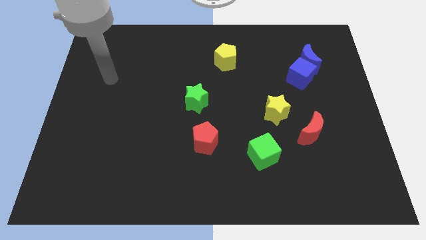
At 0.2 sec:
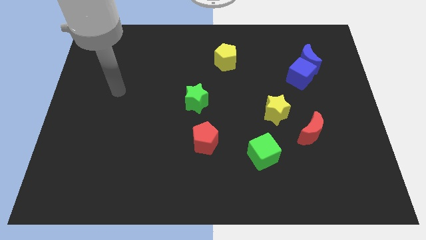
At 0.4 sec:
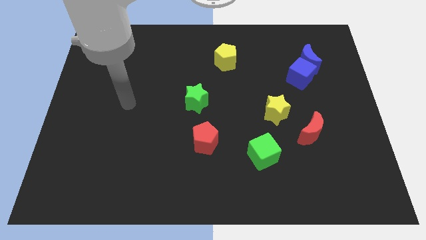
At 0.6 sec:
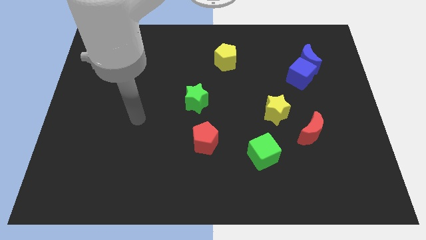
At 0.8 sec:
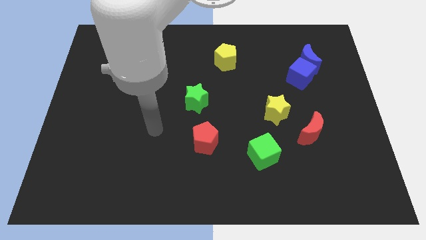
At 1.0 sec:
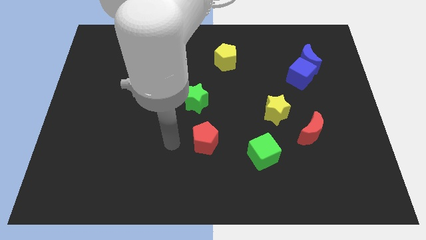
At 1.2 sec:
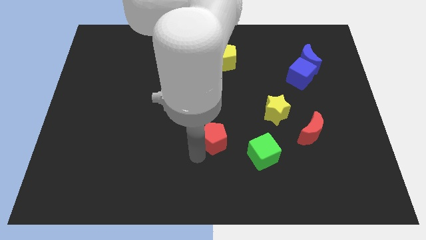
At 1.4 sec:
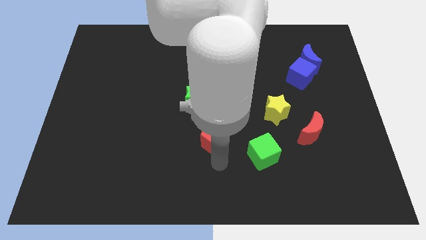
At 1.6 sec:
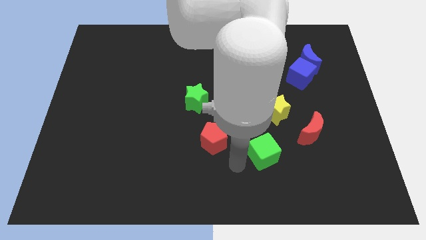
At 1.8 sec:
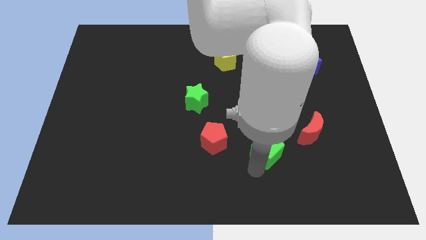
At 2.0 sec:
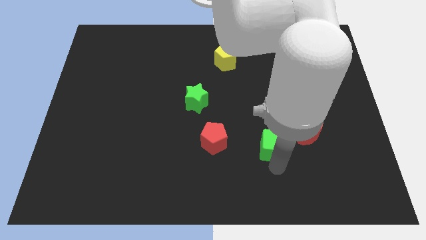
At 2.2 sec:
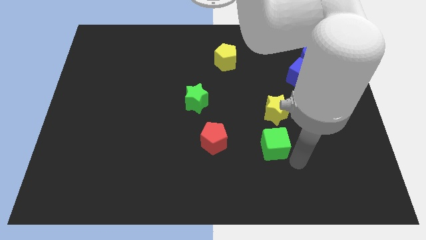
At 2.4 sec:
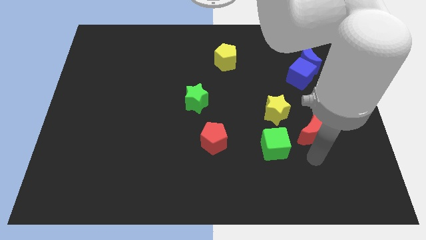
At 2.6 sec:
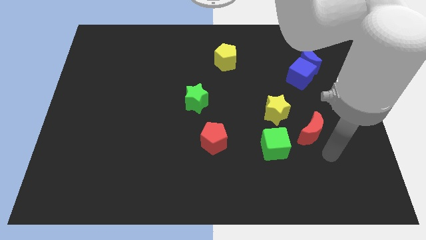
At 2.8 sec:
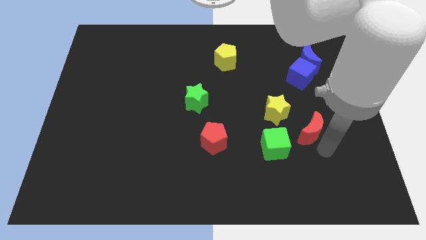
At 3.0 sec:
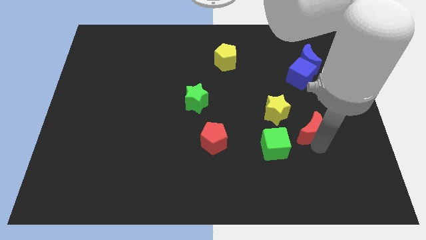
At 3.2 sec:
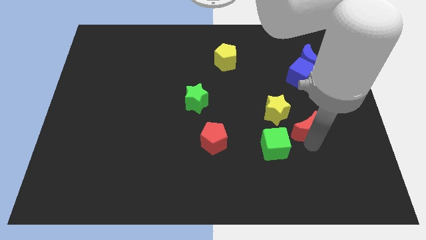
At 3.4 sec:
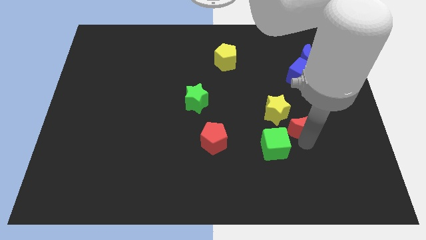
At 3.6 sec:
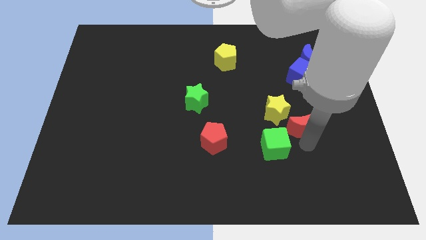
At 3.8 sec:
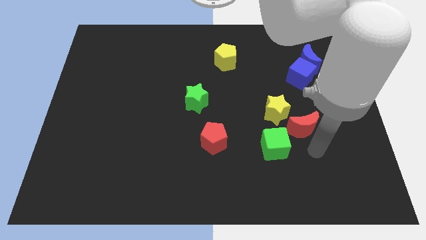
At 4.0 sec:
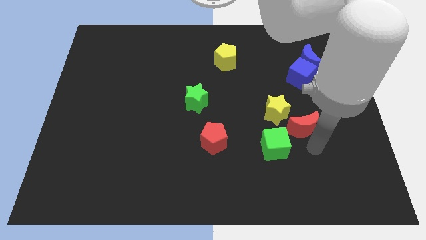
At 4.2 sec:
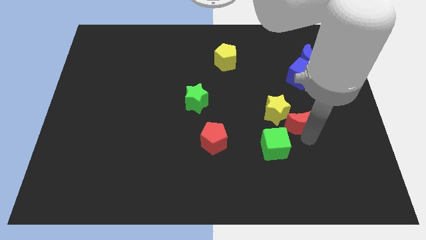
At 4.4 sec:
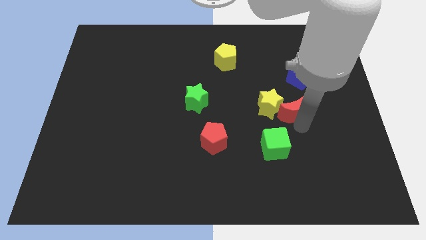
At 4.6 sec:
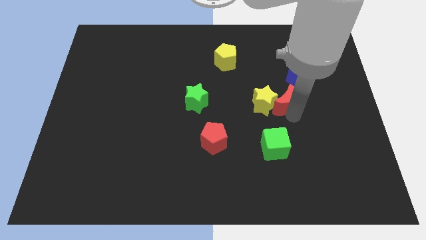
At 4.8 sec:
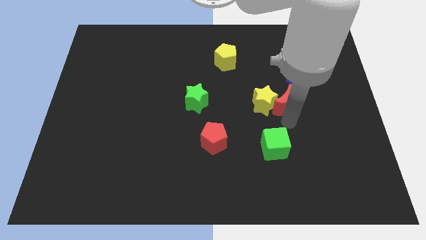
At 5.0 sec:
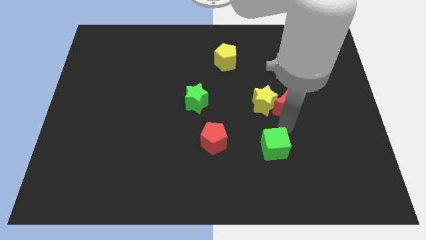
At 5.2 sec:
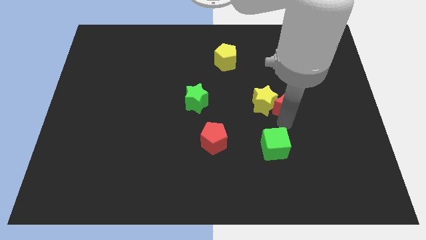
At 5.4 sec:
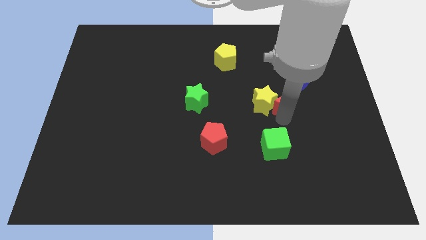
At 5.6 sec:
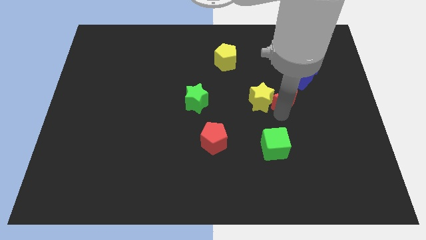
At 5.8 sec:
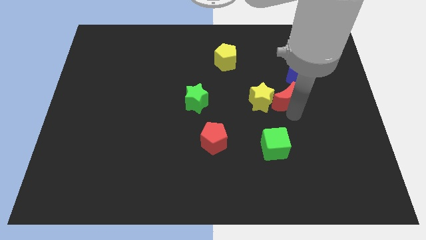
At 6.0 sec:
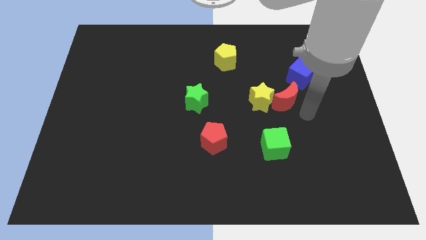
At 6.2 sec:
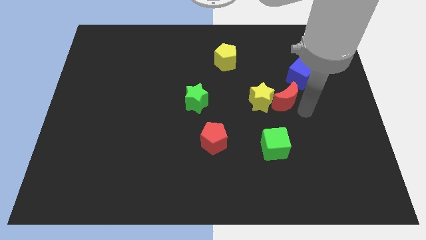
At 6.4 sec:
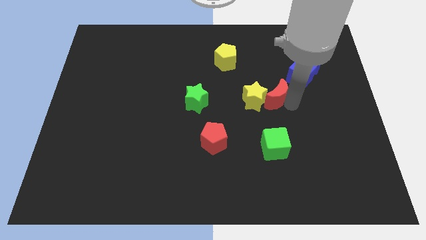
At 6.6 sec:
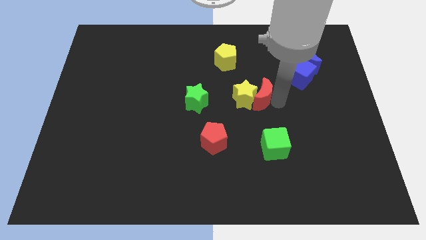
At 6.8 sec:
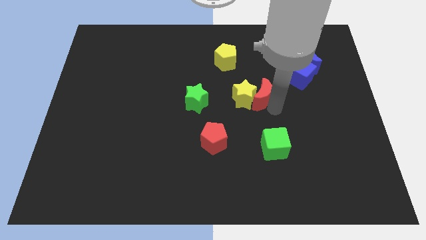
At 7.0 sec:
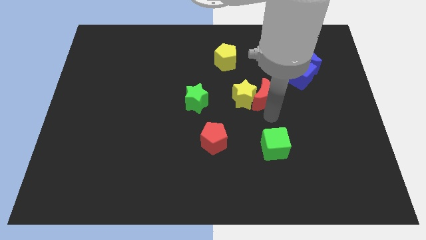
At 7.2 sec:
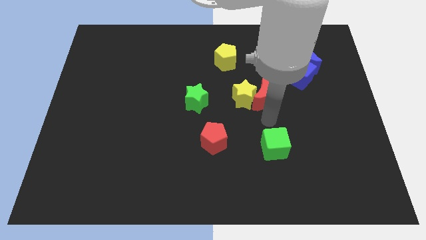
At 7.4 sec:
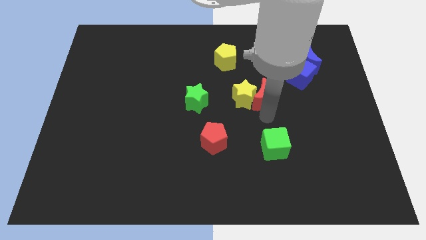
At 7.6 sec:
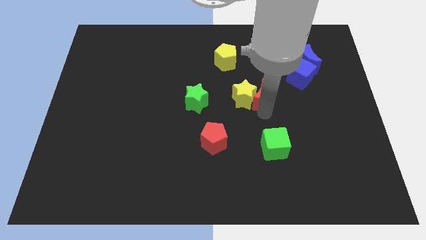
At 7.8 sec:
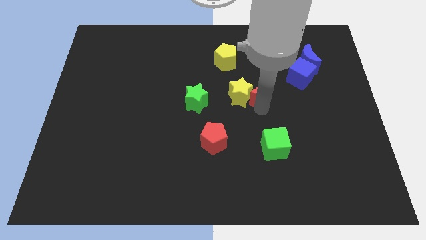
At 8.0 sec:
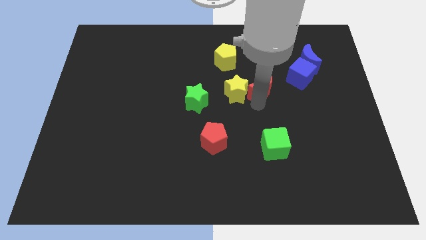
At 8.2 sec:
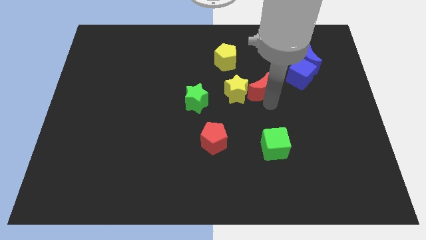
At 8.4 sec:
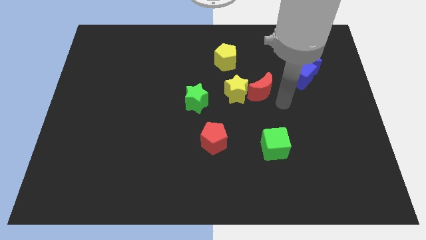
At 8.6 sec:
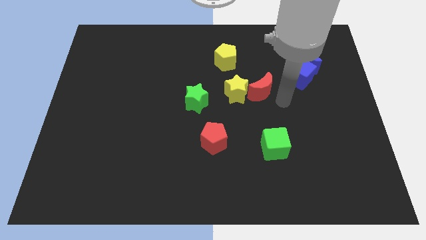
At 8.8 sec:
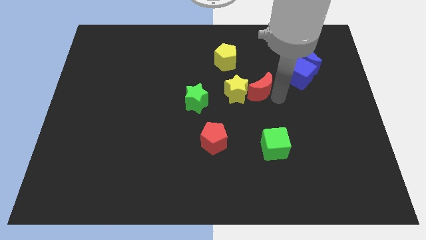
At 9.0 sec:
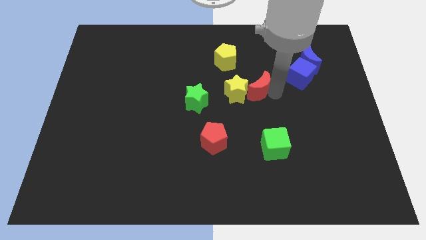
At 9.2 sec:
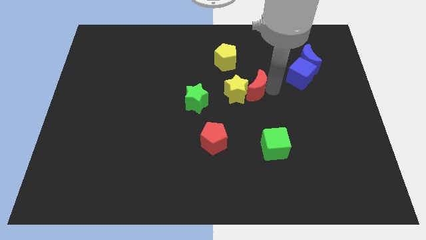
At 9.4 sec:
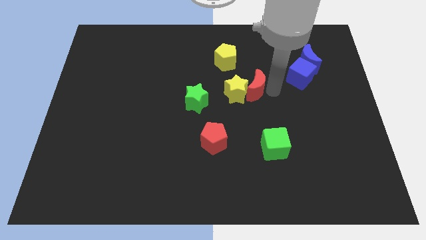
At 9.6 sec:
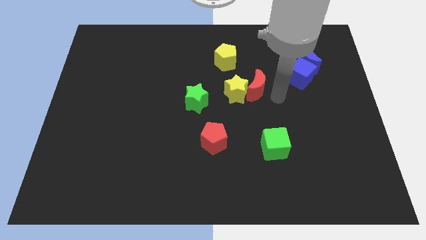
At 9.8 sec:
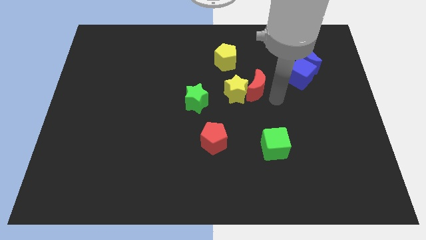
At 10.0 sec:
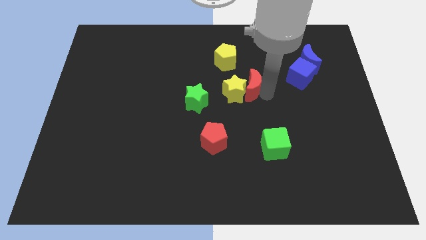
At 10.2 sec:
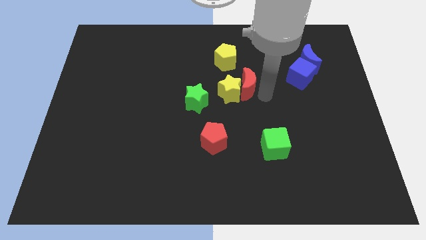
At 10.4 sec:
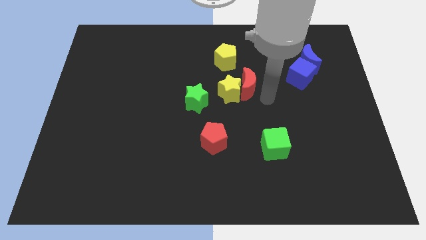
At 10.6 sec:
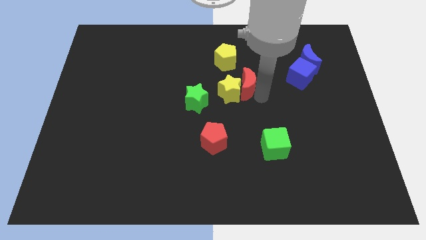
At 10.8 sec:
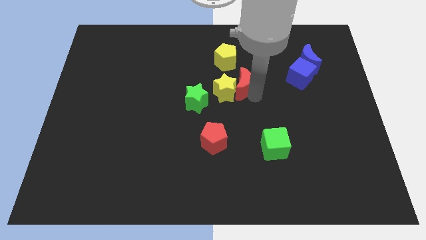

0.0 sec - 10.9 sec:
move the red moon upwards and left diagonally

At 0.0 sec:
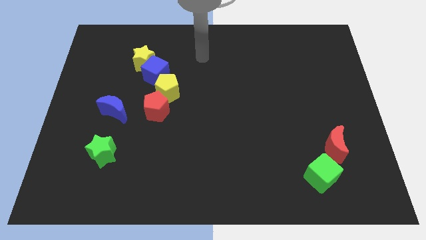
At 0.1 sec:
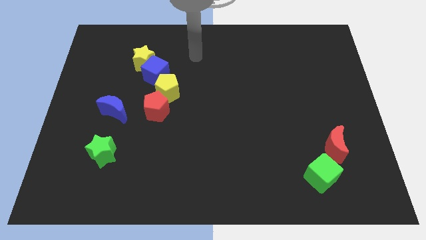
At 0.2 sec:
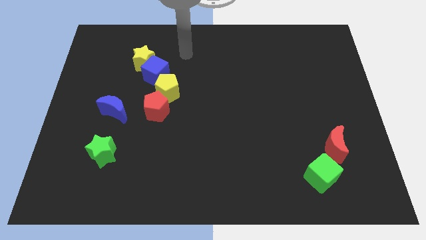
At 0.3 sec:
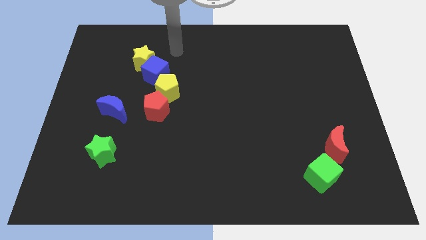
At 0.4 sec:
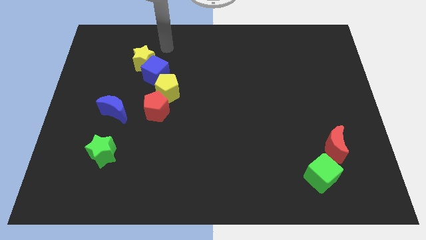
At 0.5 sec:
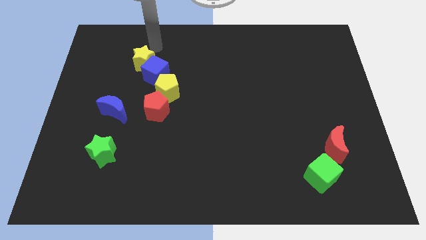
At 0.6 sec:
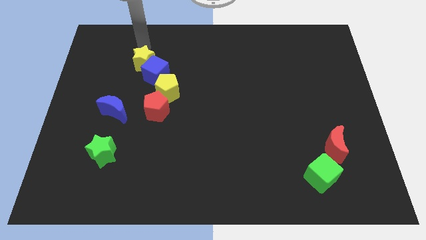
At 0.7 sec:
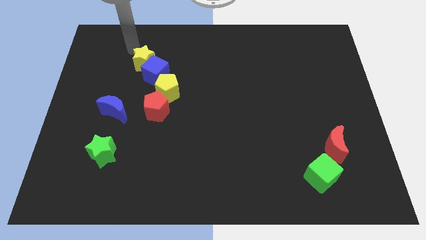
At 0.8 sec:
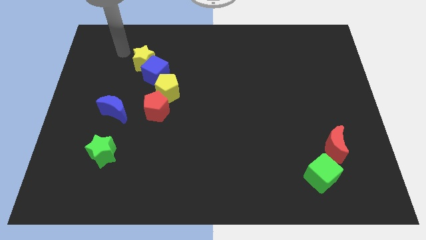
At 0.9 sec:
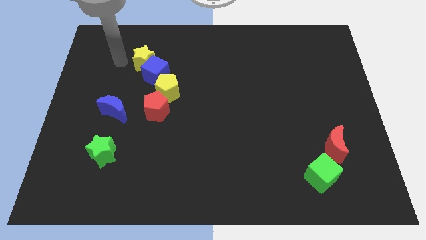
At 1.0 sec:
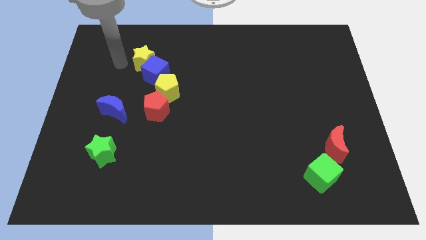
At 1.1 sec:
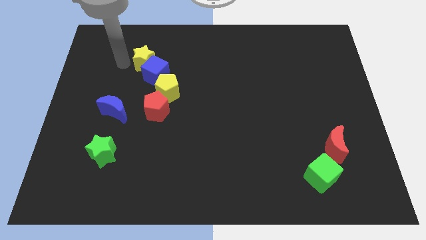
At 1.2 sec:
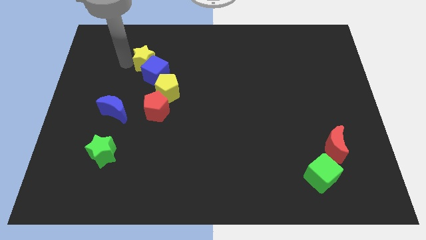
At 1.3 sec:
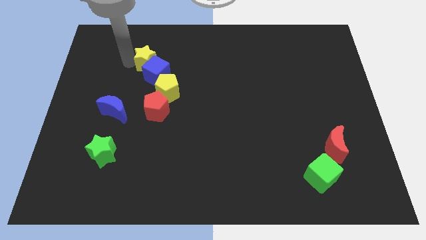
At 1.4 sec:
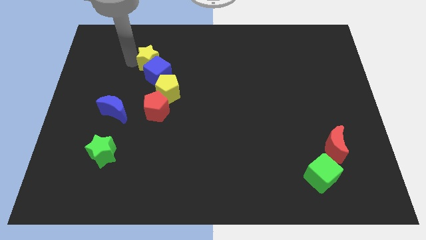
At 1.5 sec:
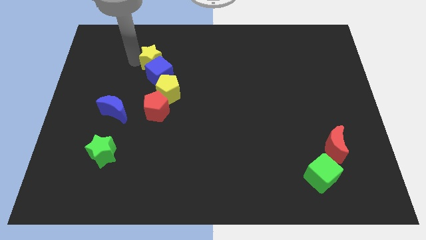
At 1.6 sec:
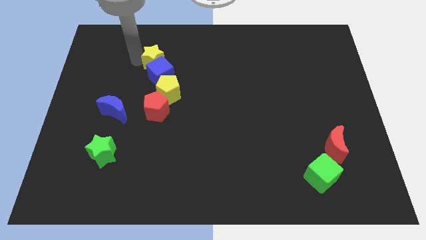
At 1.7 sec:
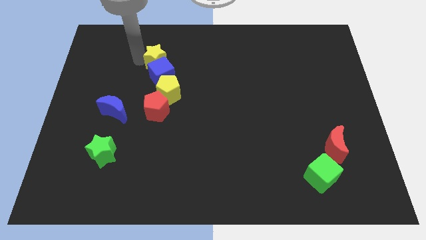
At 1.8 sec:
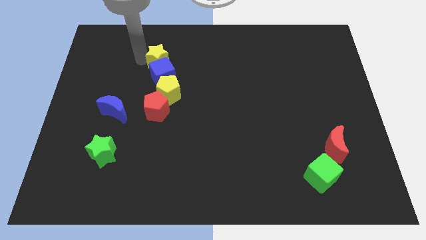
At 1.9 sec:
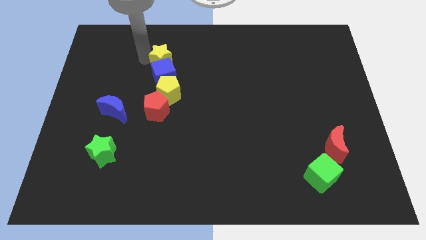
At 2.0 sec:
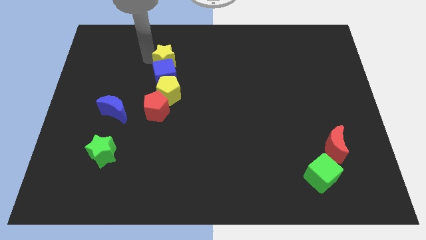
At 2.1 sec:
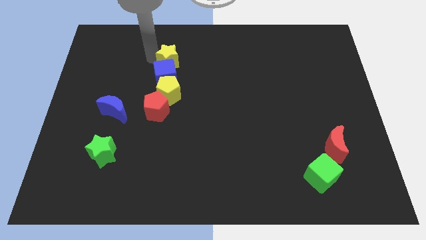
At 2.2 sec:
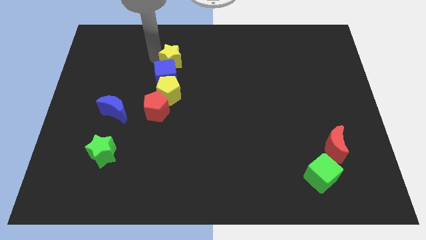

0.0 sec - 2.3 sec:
slide the yellow star a little to the right

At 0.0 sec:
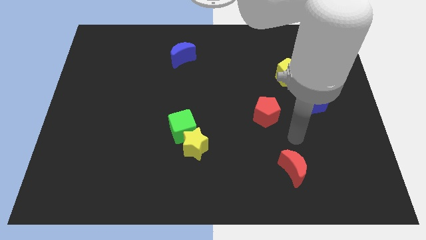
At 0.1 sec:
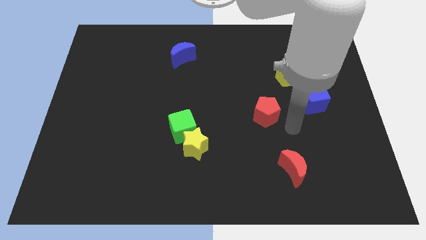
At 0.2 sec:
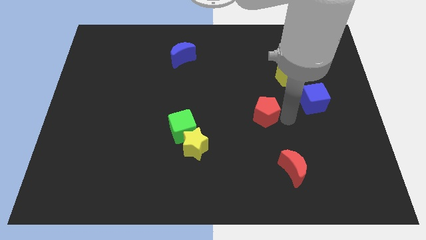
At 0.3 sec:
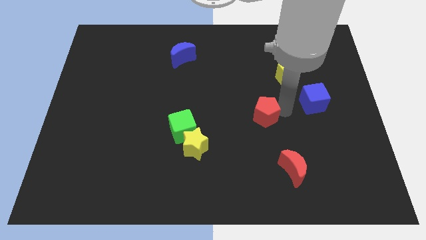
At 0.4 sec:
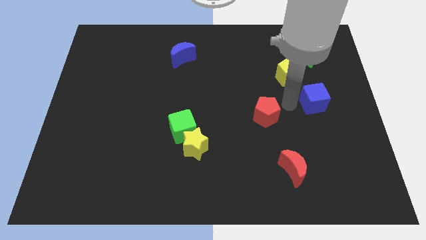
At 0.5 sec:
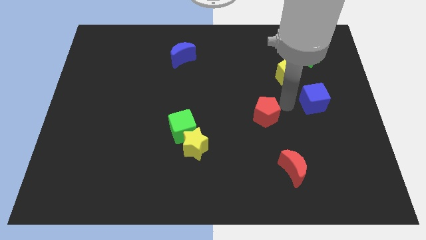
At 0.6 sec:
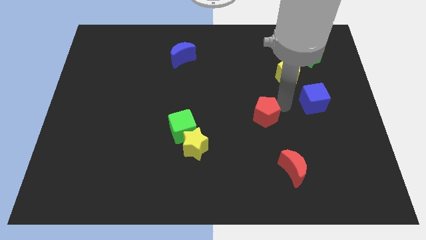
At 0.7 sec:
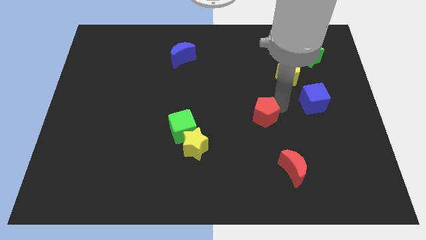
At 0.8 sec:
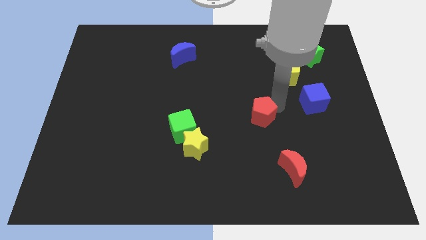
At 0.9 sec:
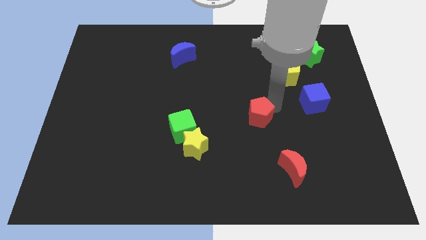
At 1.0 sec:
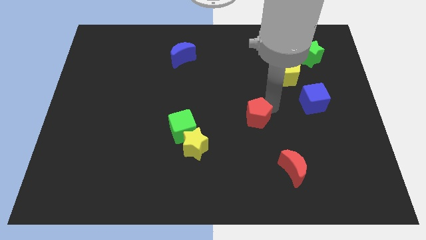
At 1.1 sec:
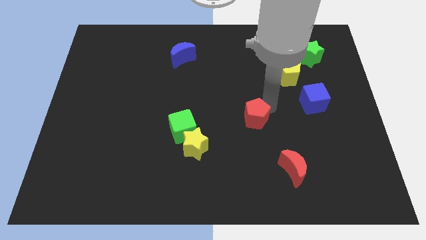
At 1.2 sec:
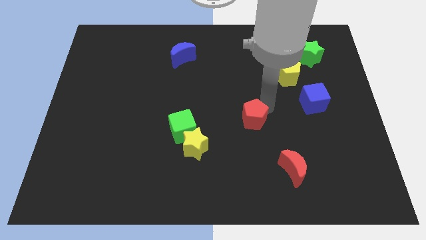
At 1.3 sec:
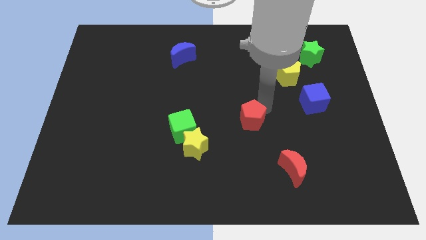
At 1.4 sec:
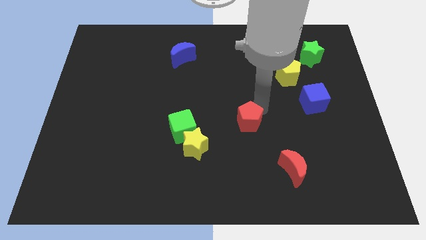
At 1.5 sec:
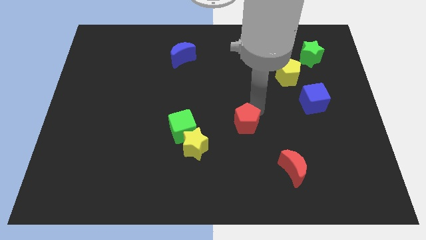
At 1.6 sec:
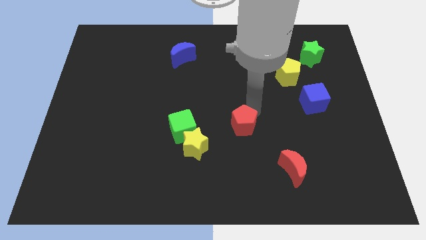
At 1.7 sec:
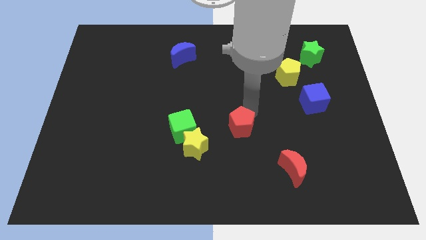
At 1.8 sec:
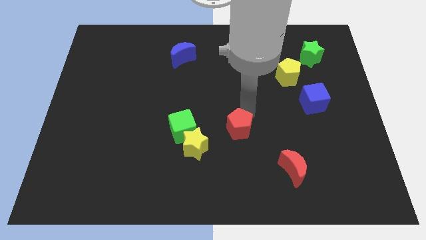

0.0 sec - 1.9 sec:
slide the red pentagon somewhat down and then left
